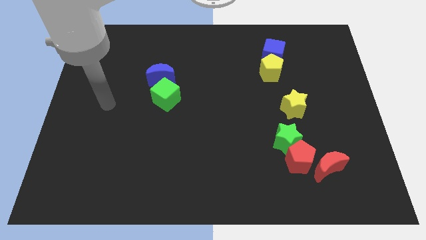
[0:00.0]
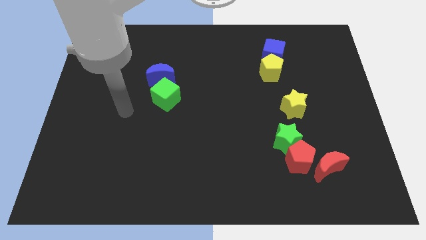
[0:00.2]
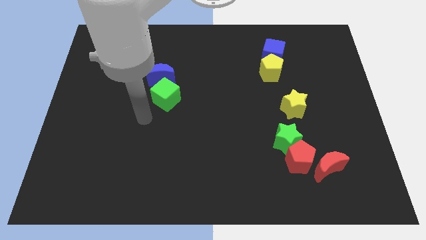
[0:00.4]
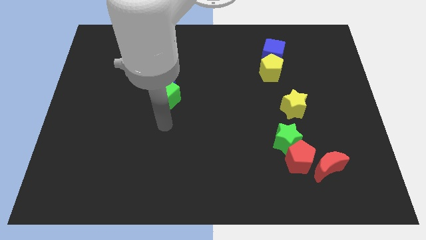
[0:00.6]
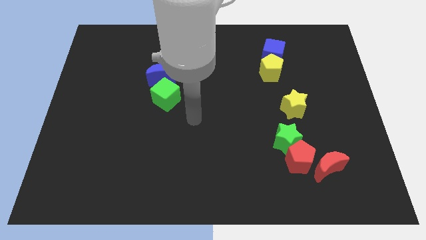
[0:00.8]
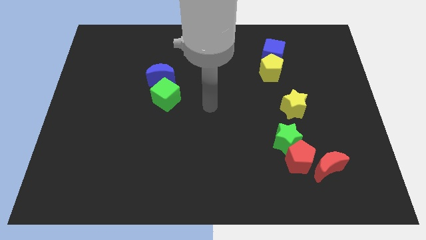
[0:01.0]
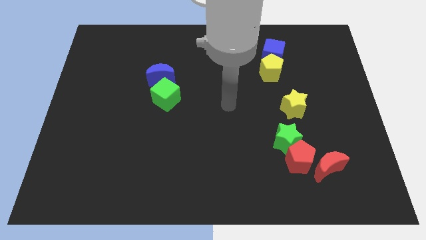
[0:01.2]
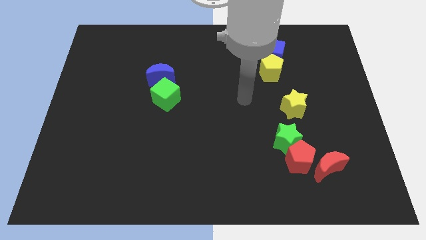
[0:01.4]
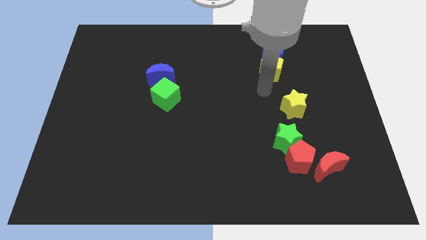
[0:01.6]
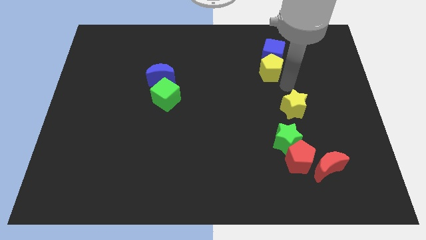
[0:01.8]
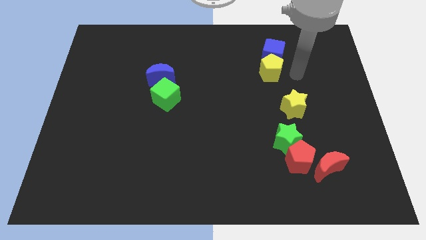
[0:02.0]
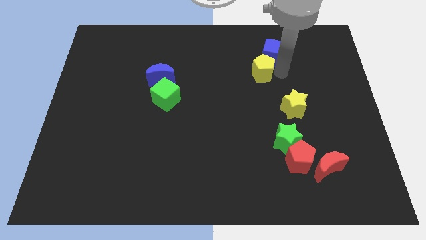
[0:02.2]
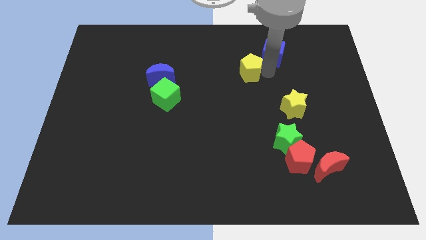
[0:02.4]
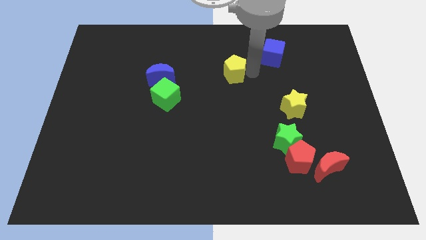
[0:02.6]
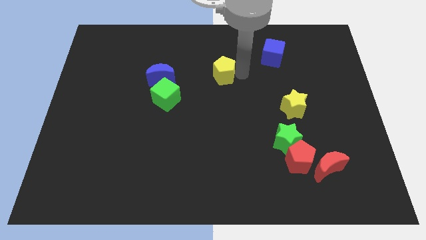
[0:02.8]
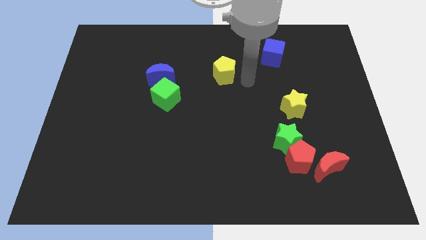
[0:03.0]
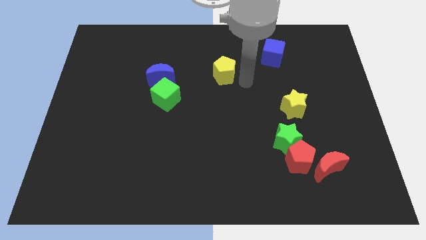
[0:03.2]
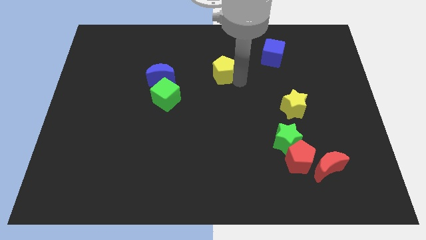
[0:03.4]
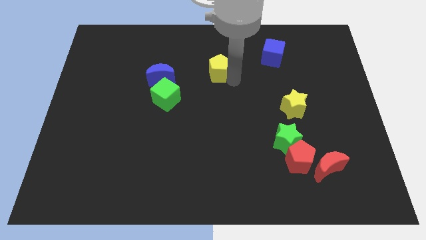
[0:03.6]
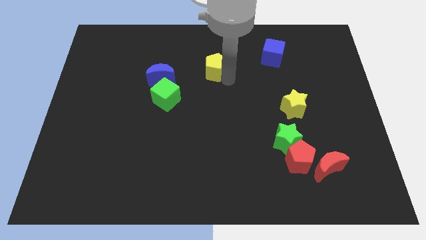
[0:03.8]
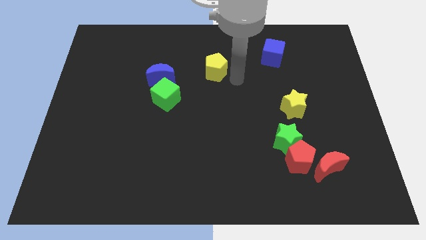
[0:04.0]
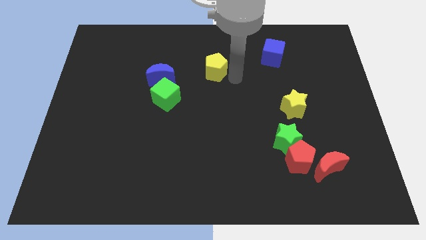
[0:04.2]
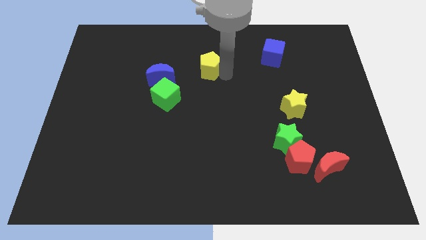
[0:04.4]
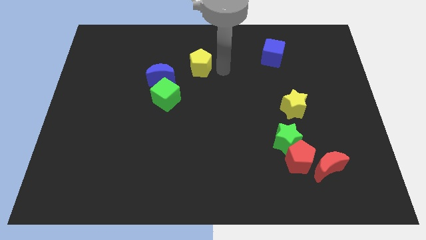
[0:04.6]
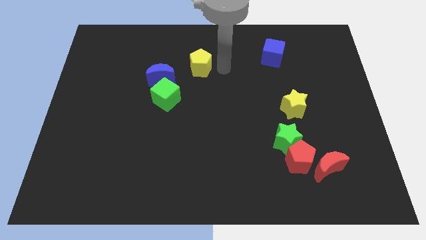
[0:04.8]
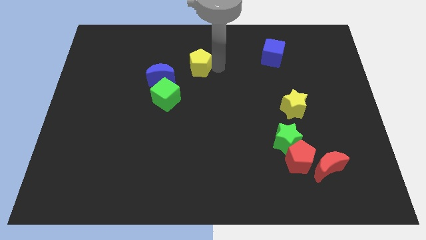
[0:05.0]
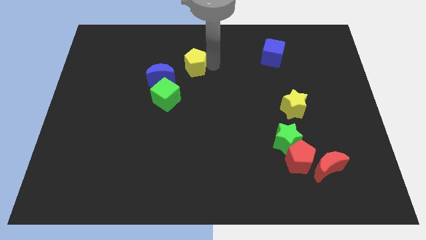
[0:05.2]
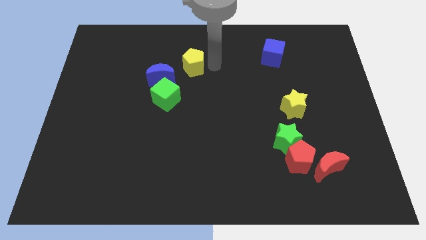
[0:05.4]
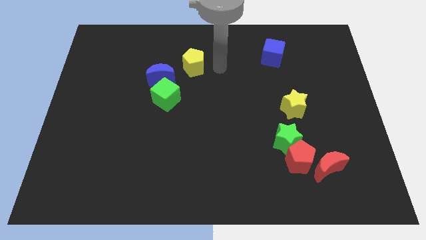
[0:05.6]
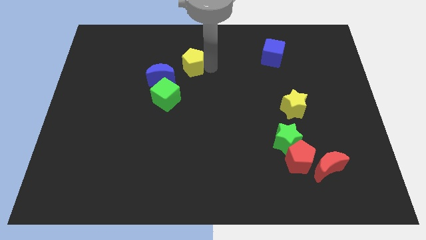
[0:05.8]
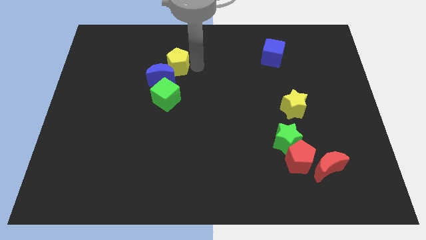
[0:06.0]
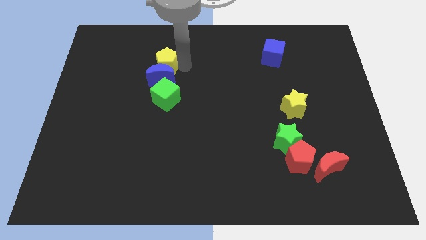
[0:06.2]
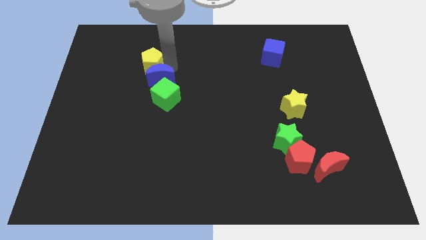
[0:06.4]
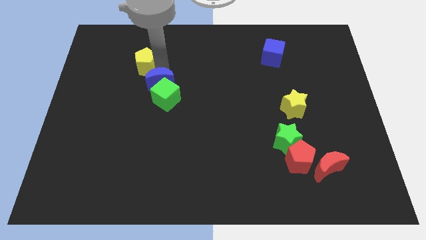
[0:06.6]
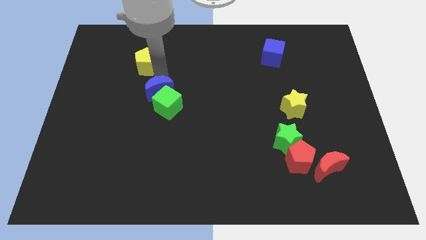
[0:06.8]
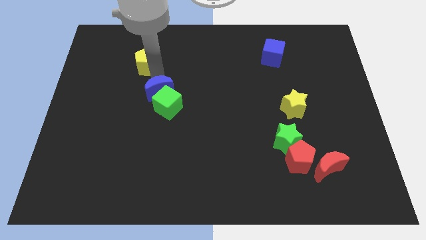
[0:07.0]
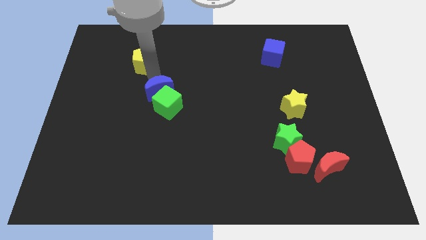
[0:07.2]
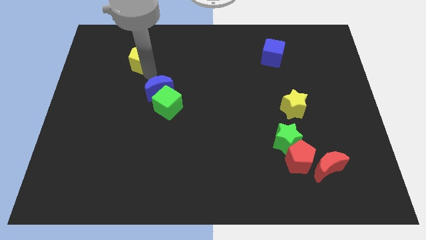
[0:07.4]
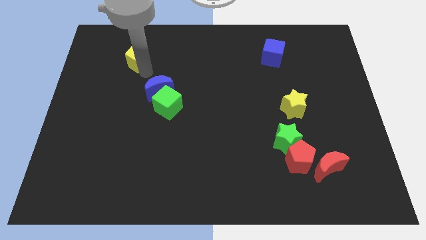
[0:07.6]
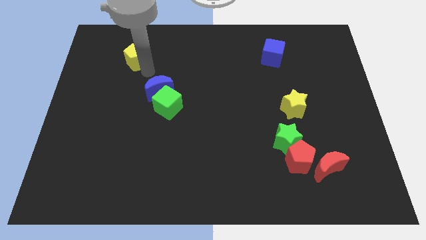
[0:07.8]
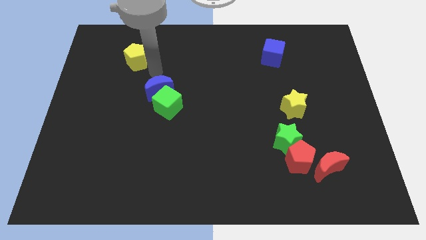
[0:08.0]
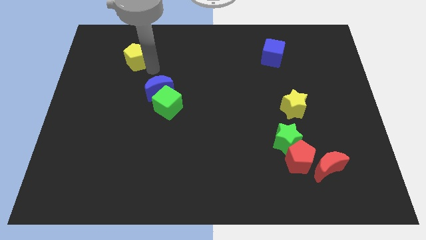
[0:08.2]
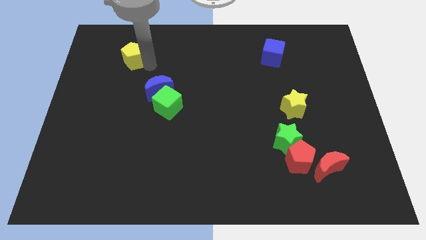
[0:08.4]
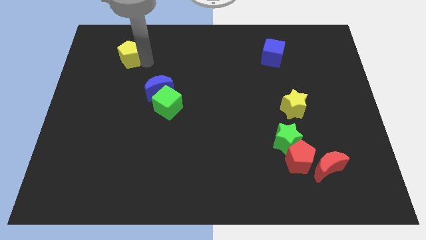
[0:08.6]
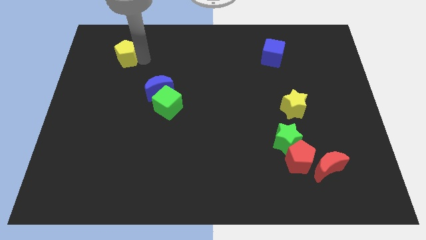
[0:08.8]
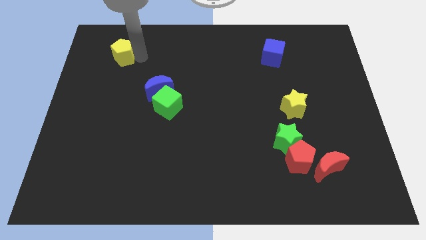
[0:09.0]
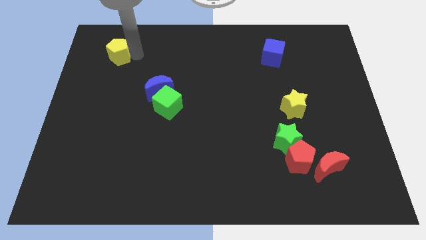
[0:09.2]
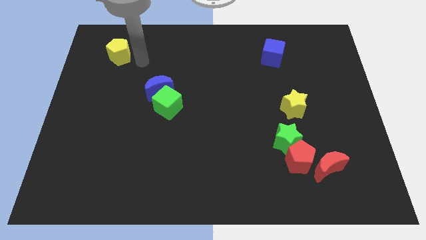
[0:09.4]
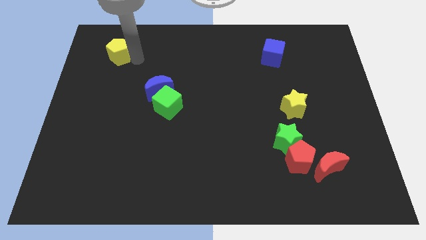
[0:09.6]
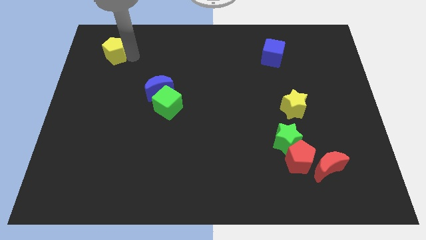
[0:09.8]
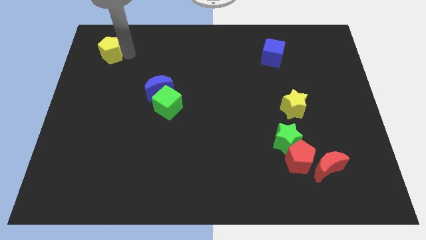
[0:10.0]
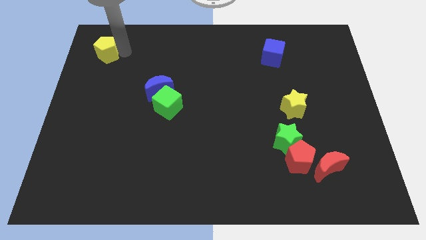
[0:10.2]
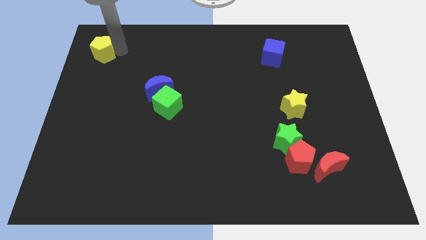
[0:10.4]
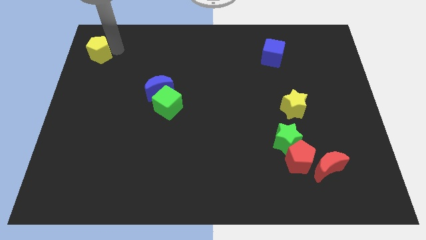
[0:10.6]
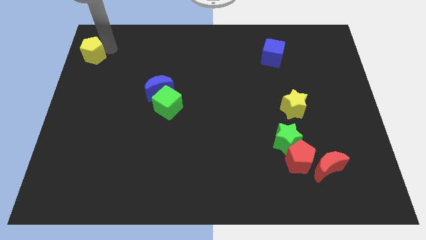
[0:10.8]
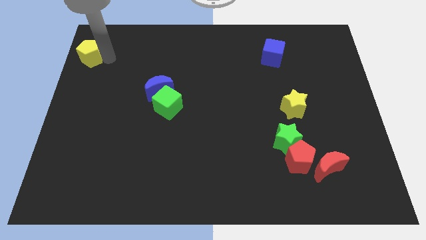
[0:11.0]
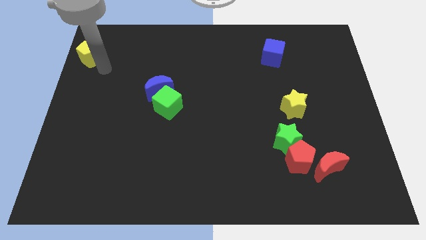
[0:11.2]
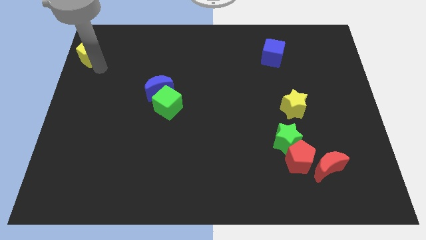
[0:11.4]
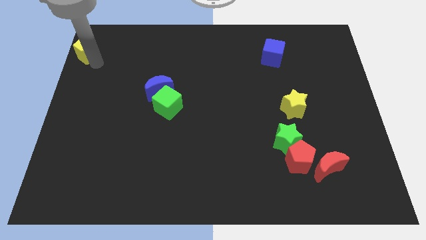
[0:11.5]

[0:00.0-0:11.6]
move the yellow pentagon to the top left

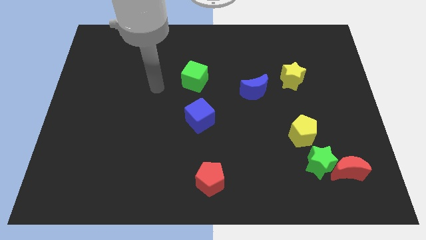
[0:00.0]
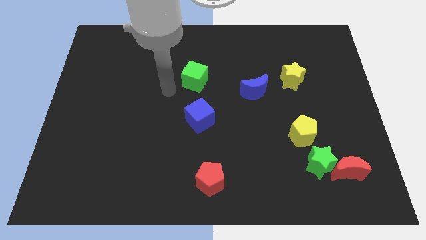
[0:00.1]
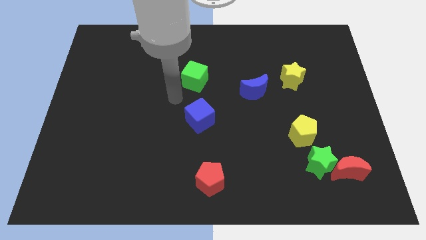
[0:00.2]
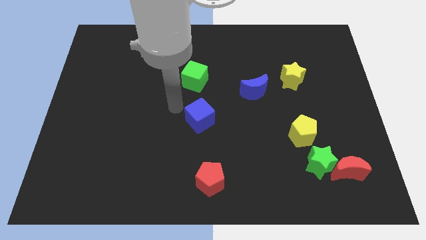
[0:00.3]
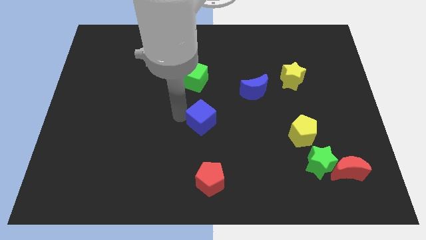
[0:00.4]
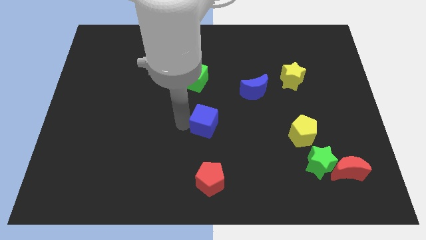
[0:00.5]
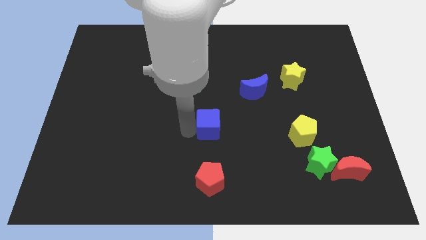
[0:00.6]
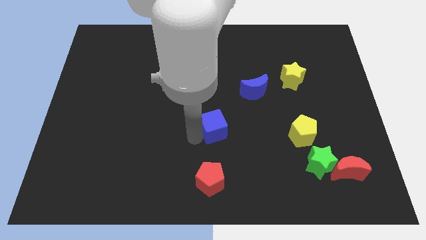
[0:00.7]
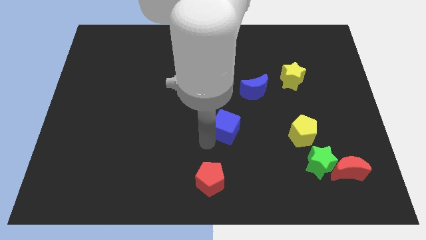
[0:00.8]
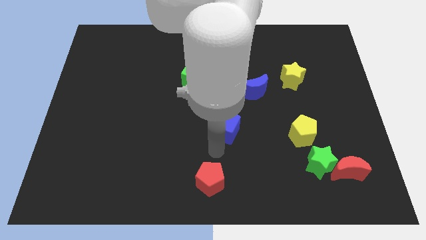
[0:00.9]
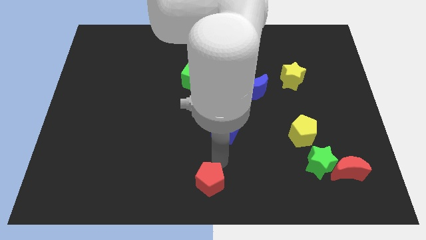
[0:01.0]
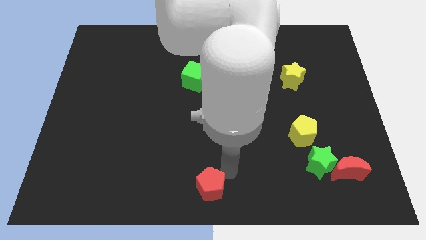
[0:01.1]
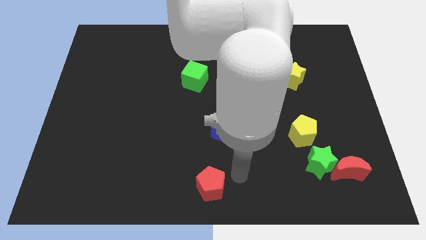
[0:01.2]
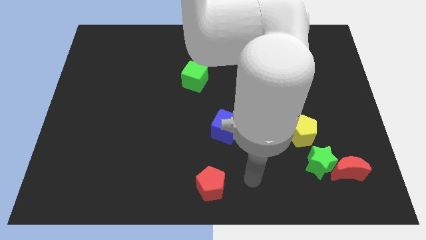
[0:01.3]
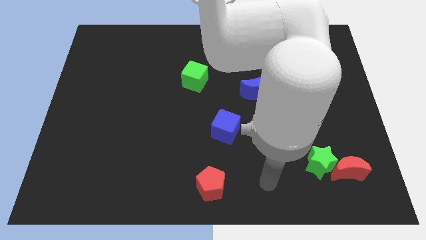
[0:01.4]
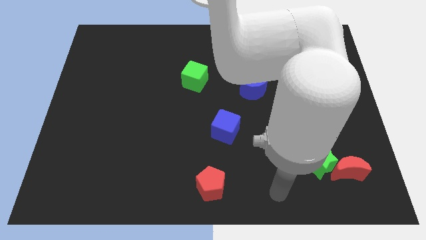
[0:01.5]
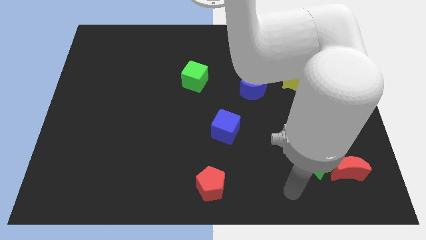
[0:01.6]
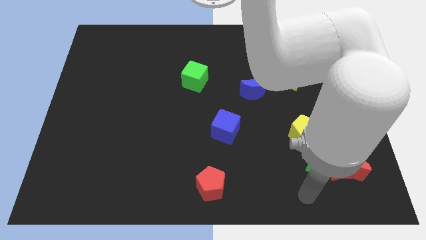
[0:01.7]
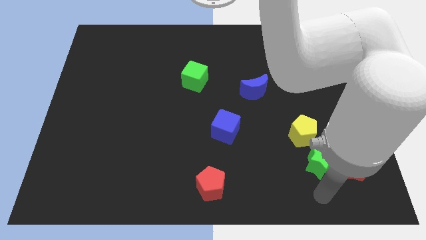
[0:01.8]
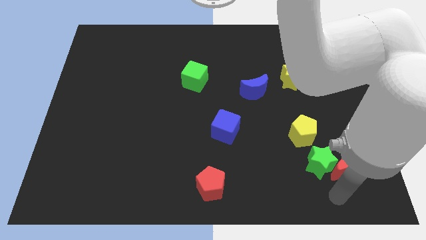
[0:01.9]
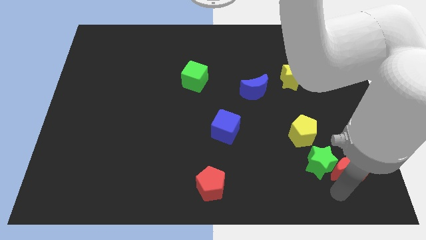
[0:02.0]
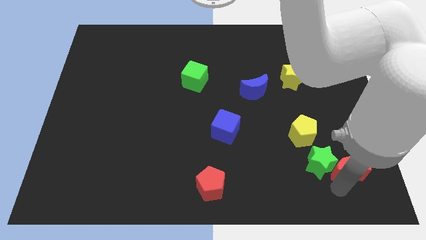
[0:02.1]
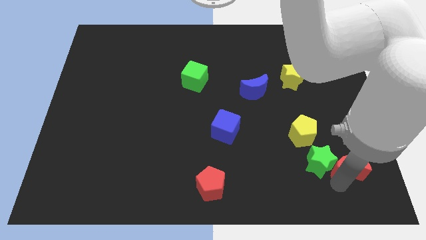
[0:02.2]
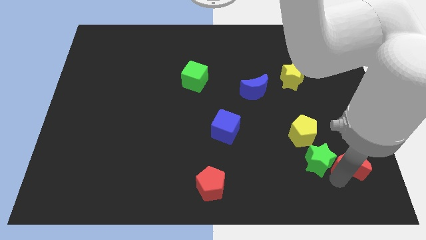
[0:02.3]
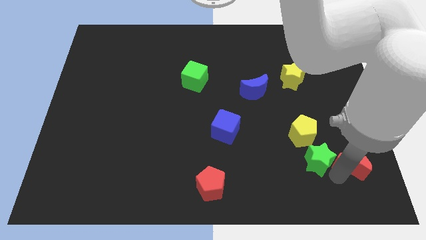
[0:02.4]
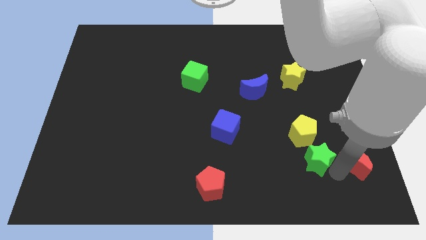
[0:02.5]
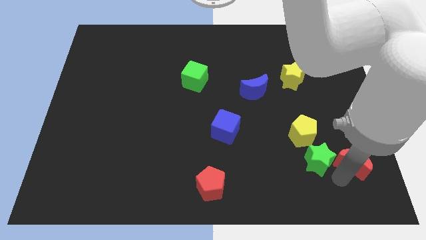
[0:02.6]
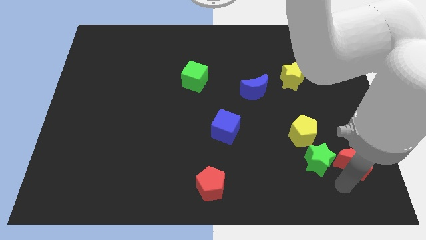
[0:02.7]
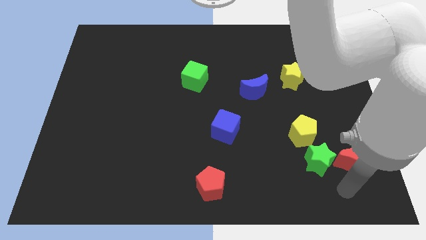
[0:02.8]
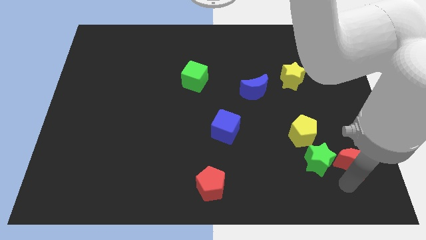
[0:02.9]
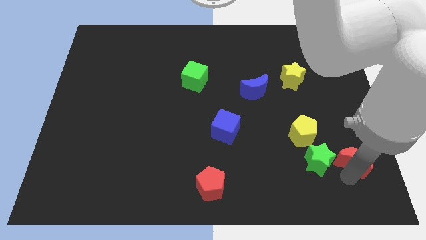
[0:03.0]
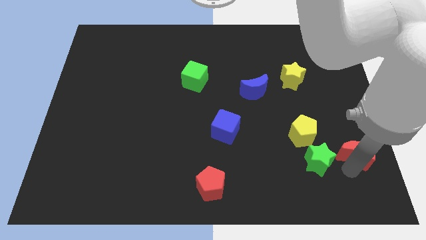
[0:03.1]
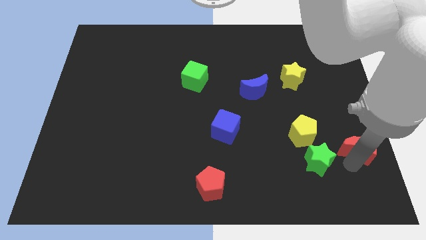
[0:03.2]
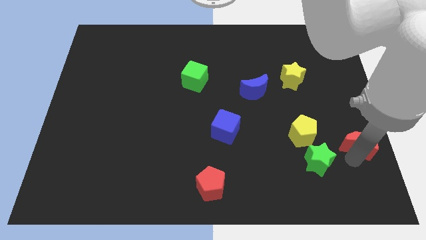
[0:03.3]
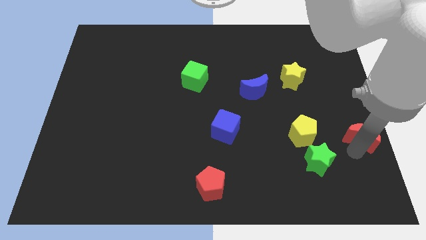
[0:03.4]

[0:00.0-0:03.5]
slide the red moon to the center right
